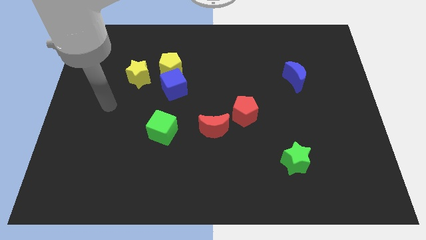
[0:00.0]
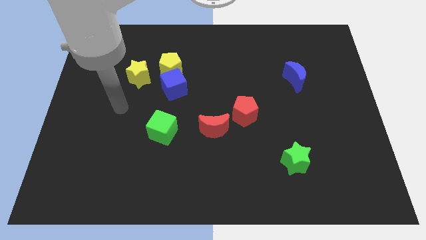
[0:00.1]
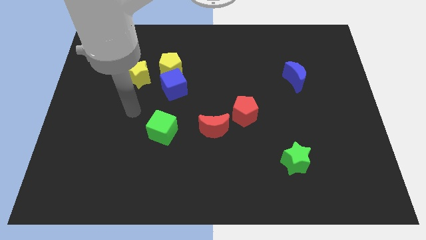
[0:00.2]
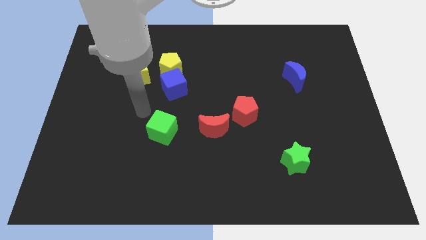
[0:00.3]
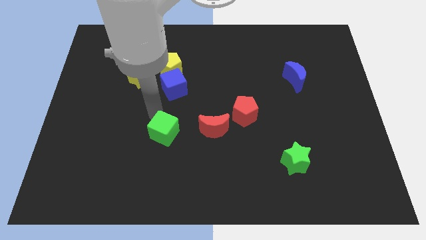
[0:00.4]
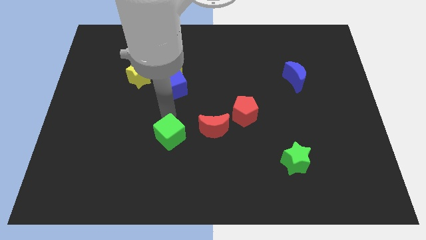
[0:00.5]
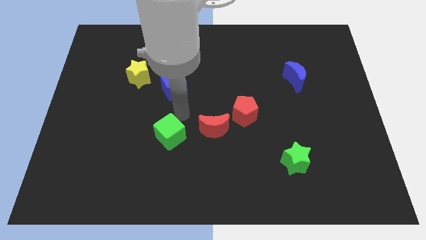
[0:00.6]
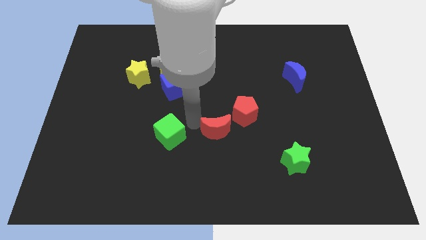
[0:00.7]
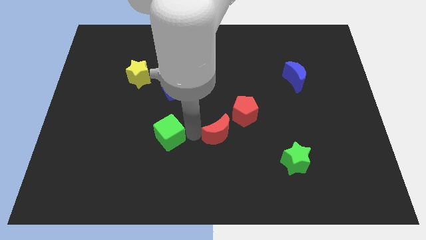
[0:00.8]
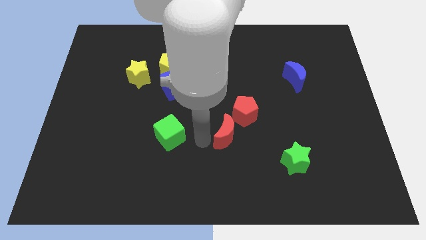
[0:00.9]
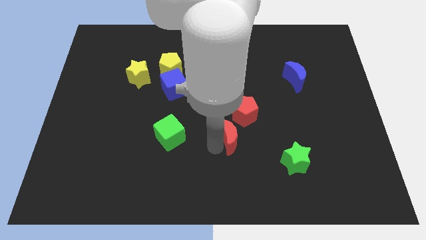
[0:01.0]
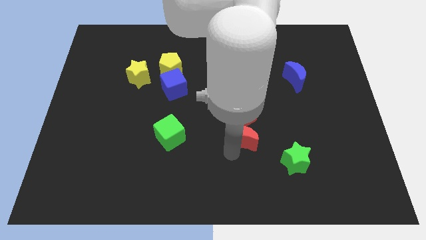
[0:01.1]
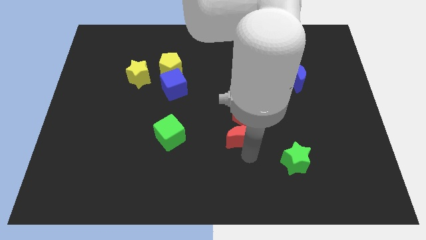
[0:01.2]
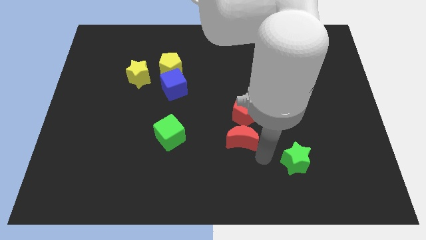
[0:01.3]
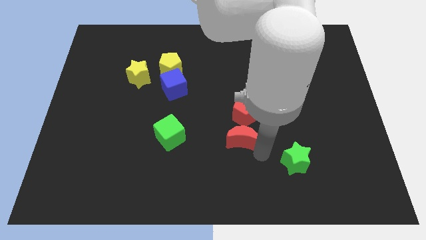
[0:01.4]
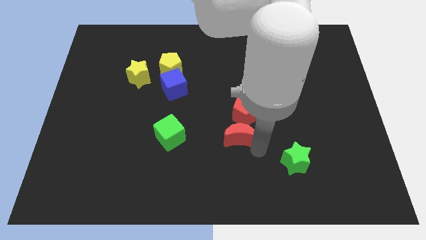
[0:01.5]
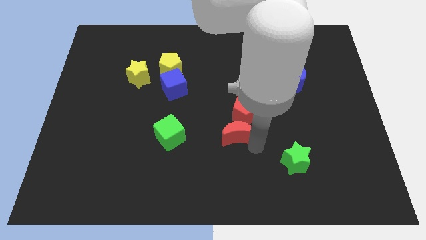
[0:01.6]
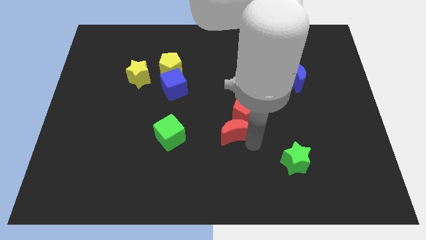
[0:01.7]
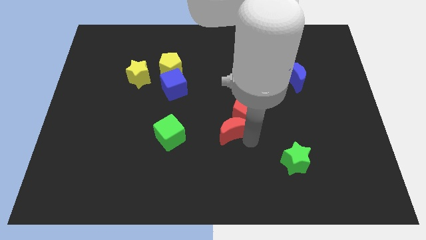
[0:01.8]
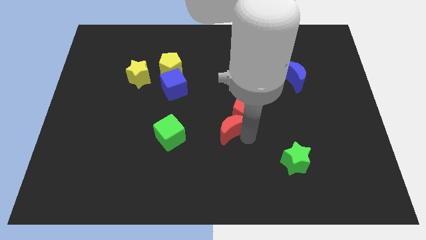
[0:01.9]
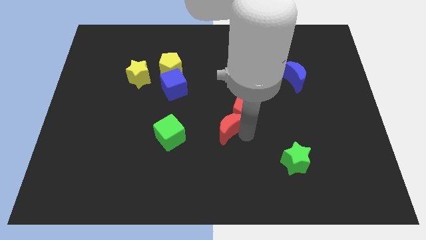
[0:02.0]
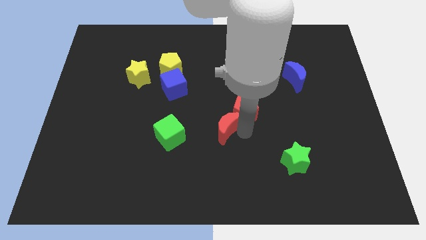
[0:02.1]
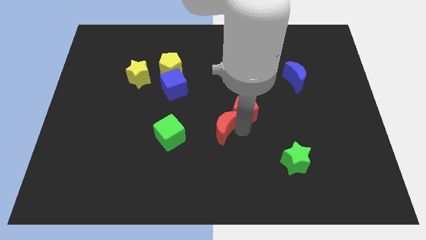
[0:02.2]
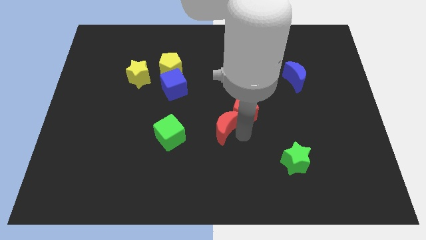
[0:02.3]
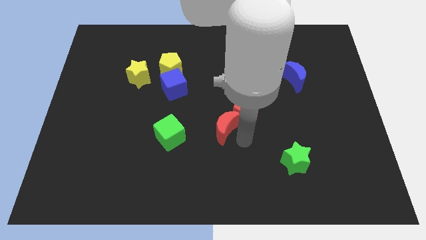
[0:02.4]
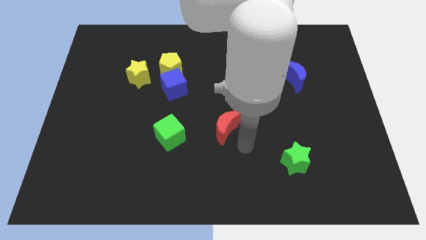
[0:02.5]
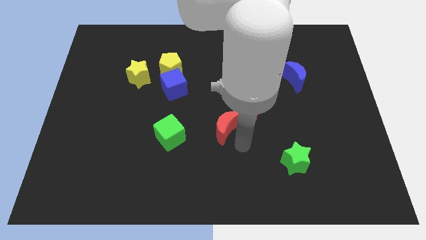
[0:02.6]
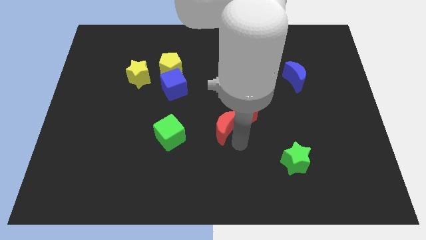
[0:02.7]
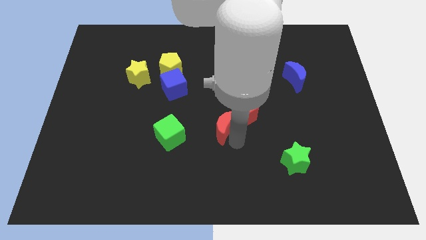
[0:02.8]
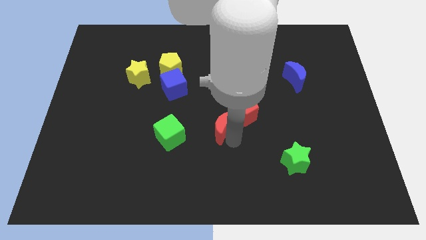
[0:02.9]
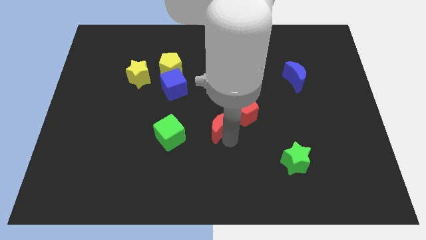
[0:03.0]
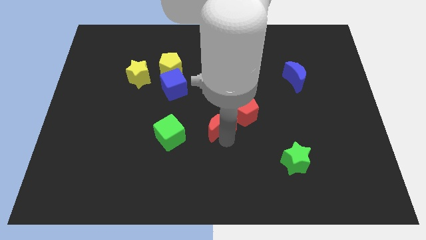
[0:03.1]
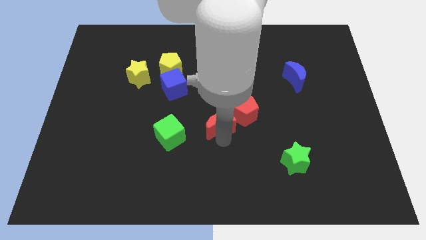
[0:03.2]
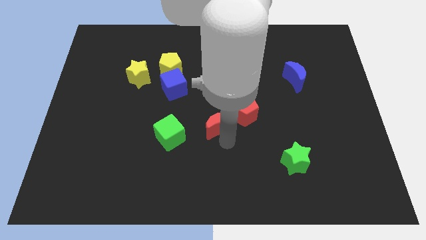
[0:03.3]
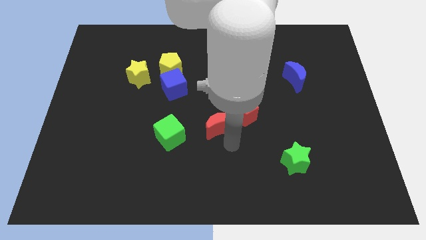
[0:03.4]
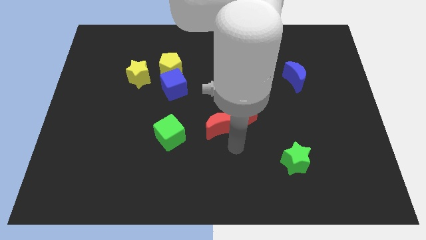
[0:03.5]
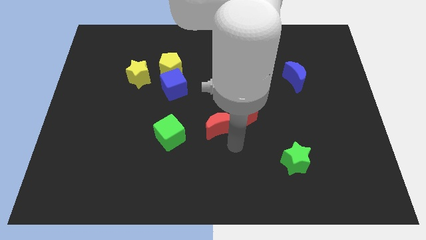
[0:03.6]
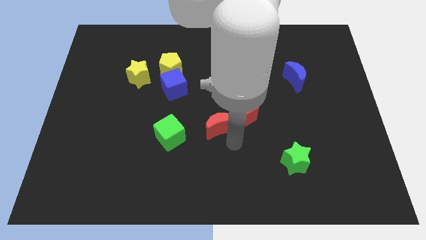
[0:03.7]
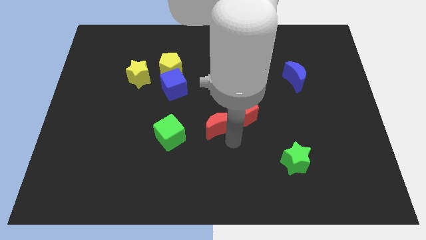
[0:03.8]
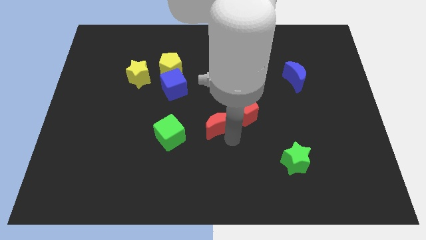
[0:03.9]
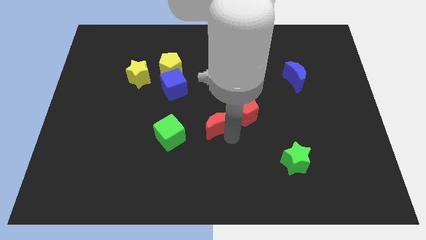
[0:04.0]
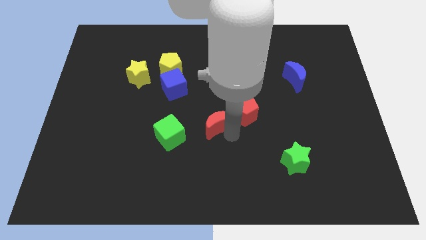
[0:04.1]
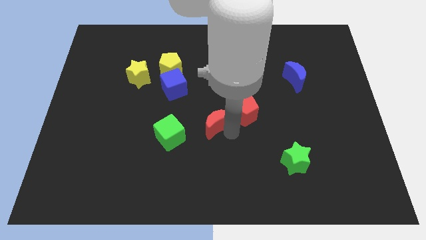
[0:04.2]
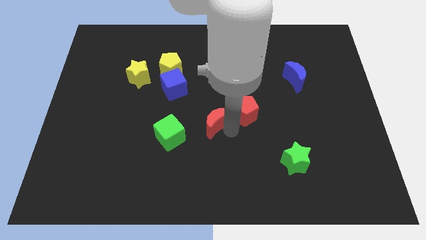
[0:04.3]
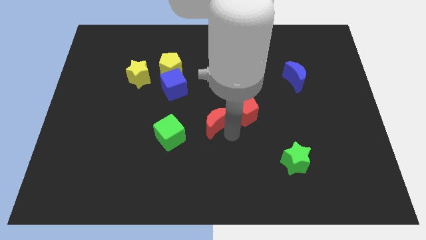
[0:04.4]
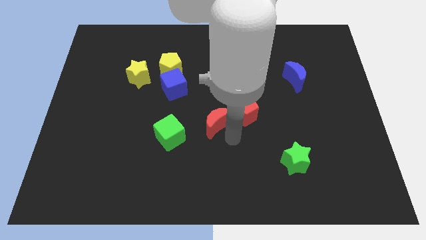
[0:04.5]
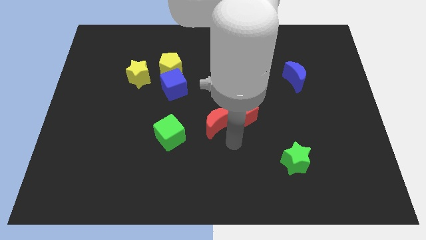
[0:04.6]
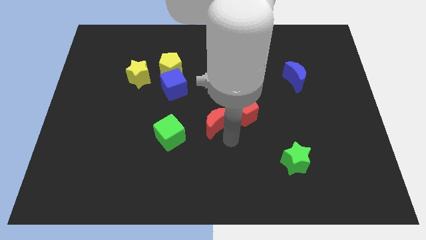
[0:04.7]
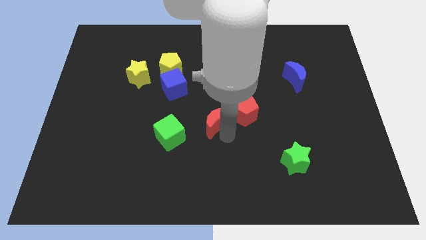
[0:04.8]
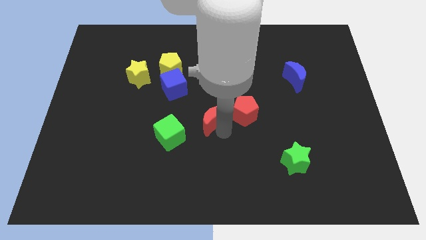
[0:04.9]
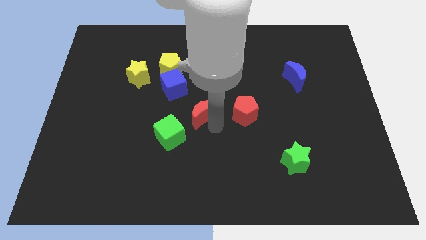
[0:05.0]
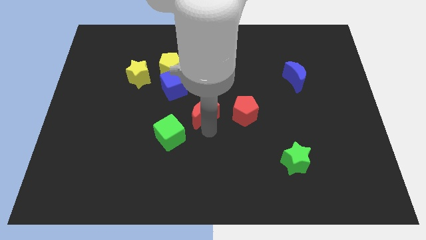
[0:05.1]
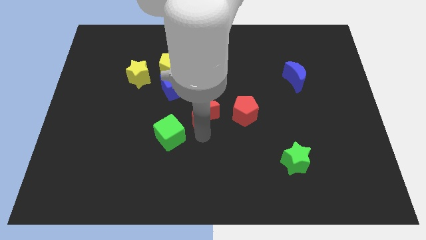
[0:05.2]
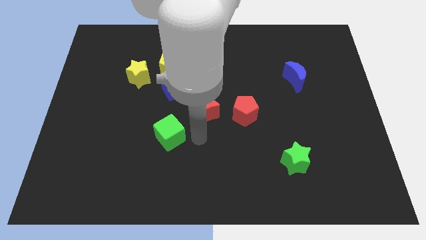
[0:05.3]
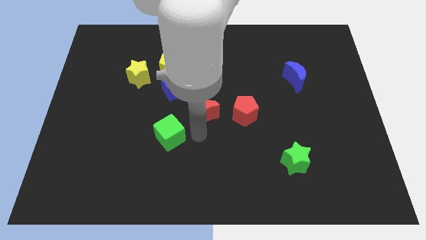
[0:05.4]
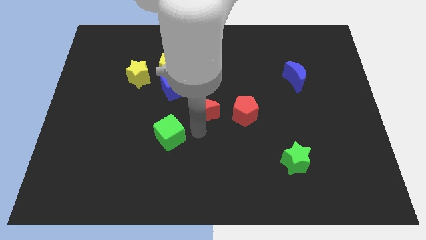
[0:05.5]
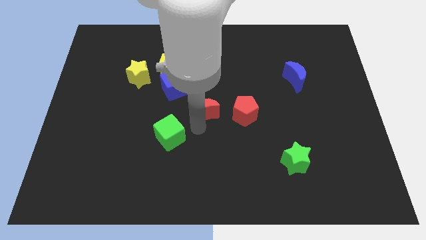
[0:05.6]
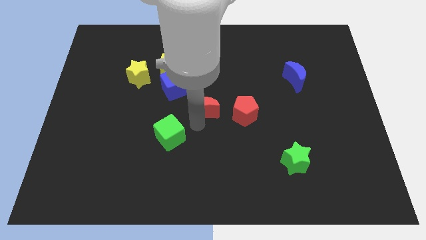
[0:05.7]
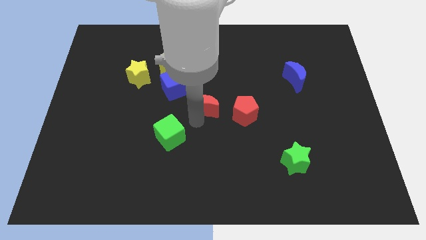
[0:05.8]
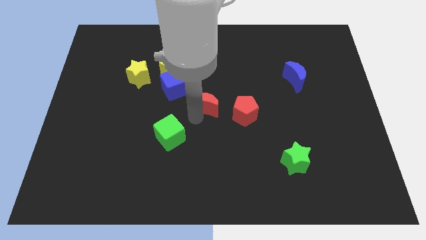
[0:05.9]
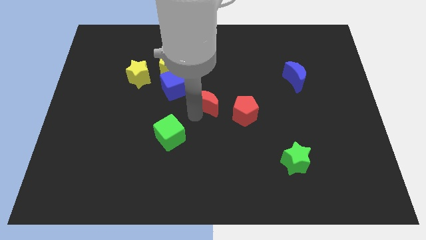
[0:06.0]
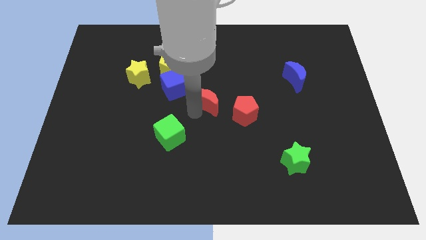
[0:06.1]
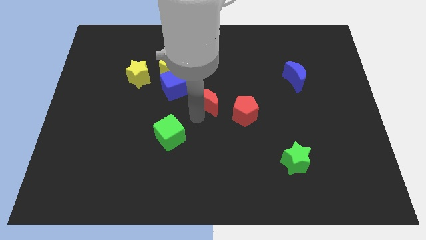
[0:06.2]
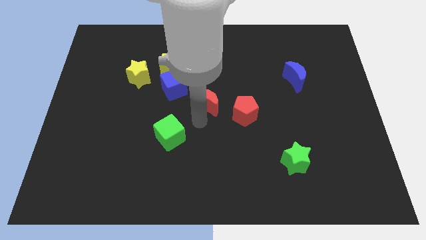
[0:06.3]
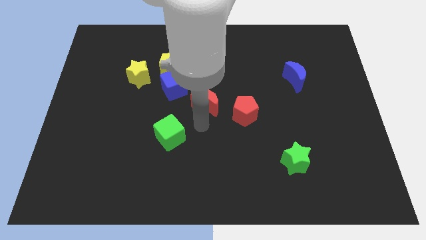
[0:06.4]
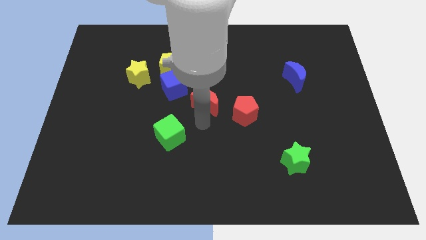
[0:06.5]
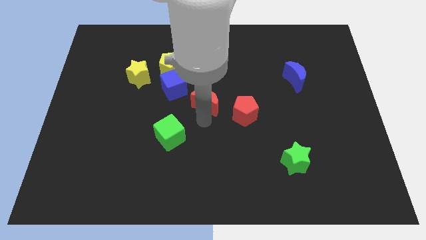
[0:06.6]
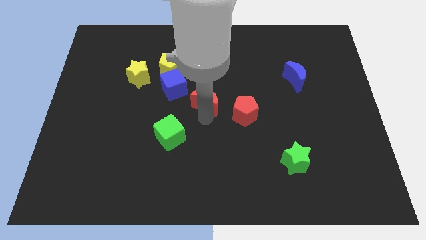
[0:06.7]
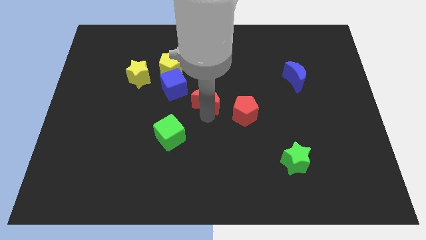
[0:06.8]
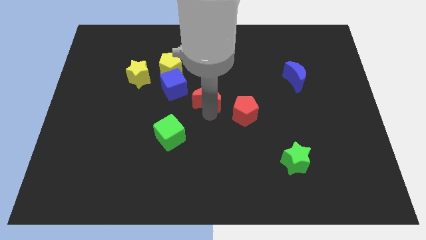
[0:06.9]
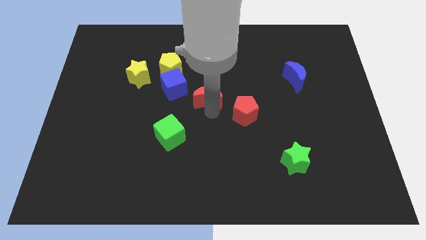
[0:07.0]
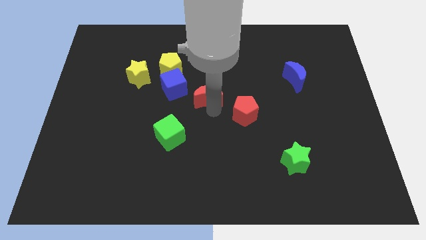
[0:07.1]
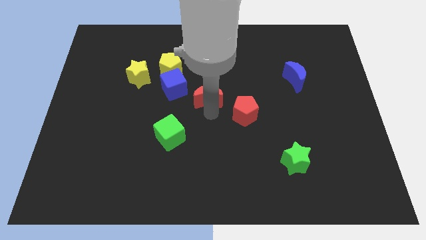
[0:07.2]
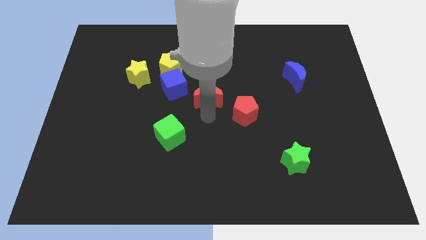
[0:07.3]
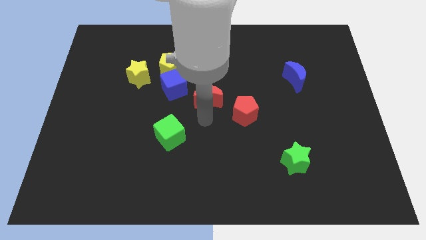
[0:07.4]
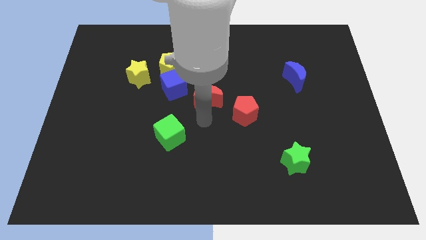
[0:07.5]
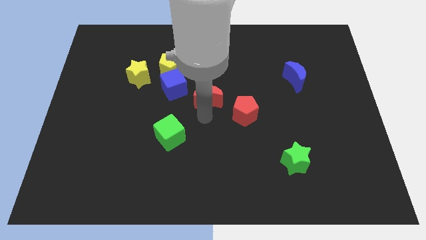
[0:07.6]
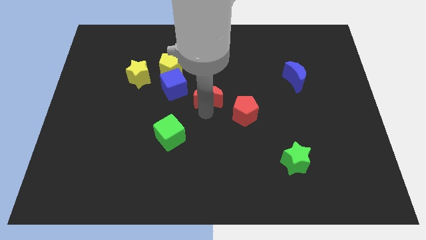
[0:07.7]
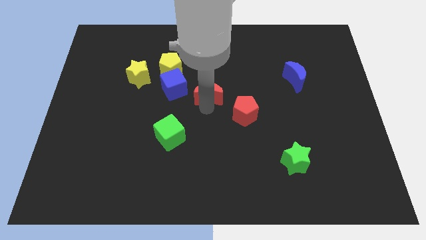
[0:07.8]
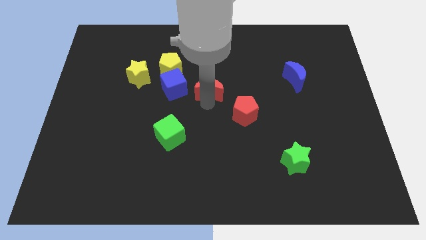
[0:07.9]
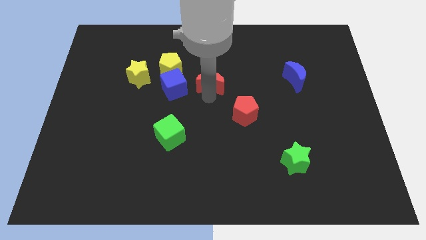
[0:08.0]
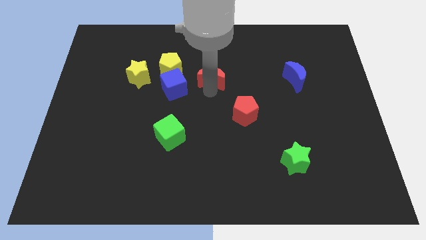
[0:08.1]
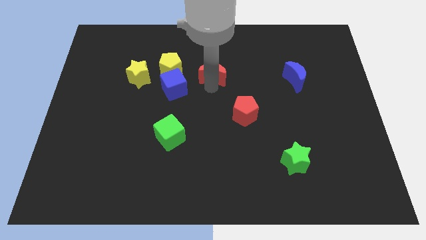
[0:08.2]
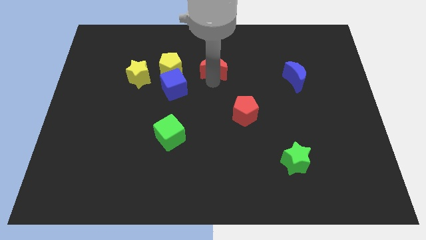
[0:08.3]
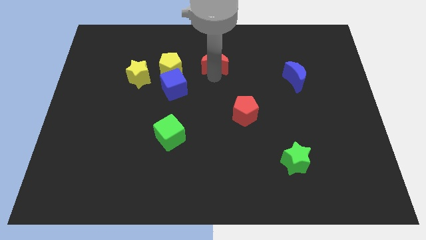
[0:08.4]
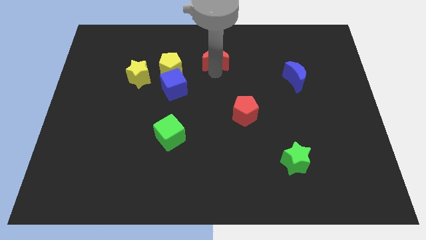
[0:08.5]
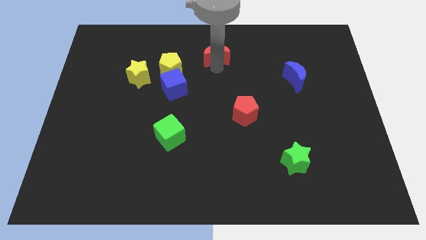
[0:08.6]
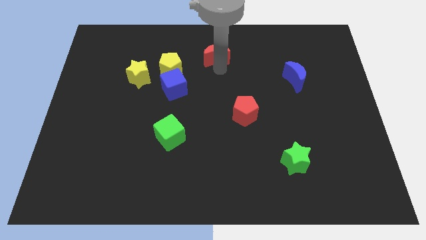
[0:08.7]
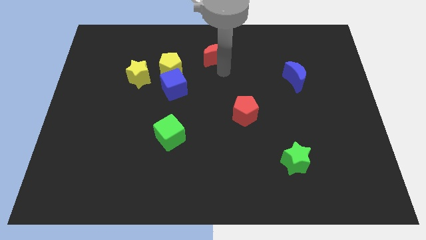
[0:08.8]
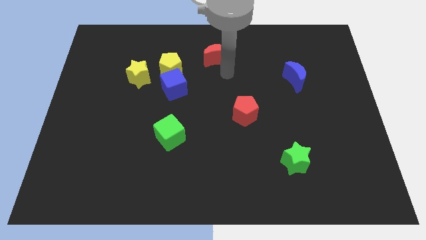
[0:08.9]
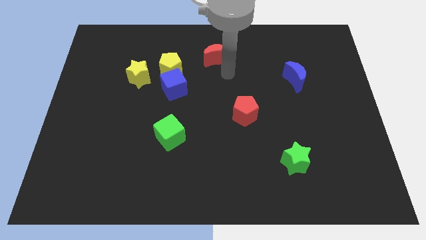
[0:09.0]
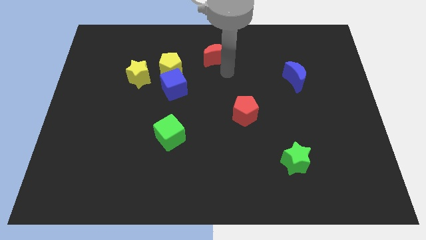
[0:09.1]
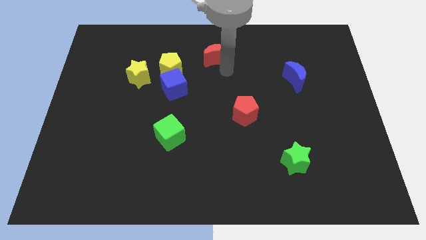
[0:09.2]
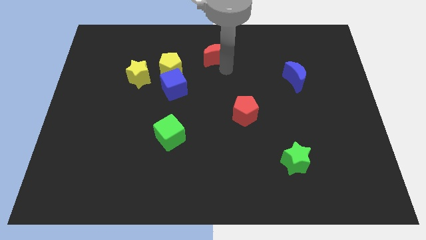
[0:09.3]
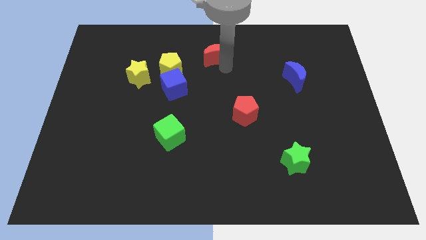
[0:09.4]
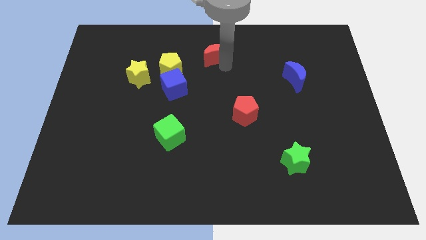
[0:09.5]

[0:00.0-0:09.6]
slide the red moon to the top side
